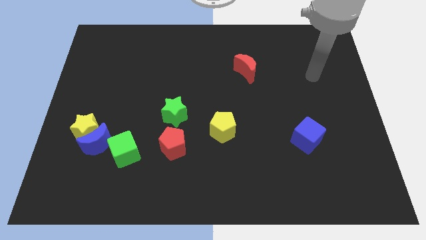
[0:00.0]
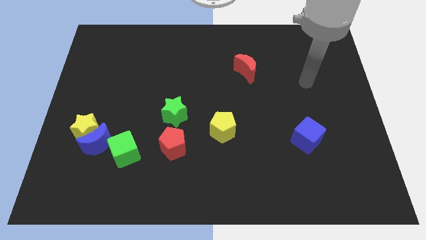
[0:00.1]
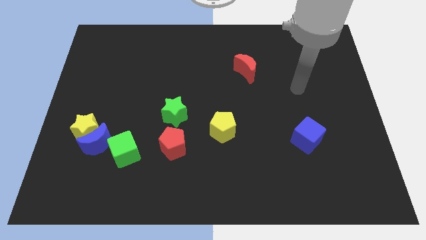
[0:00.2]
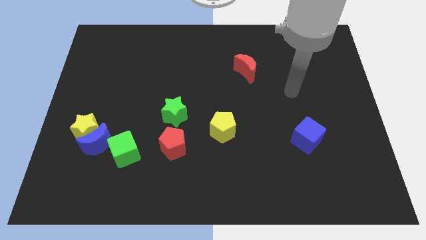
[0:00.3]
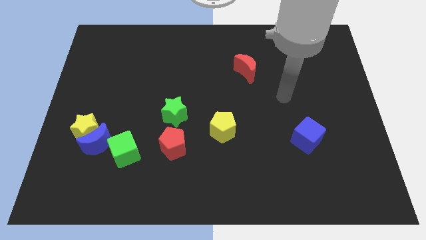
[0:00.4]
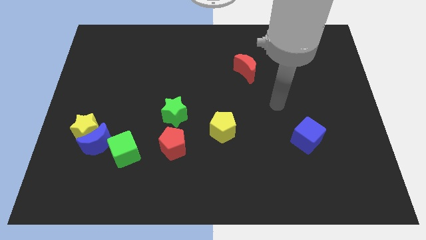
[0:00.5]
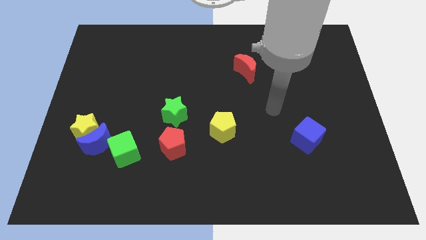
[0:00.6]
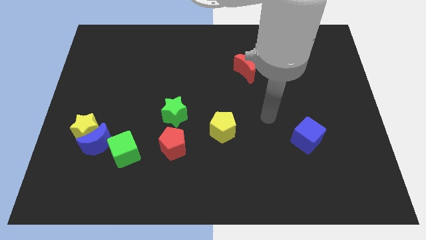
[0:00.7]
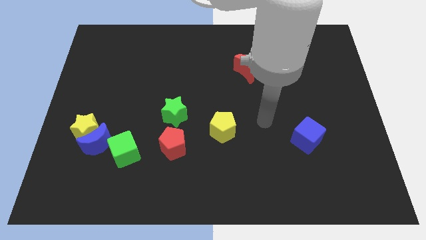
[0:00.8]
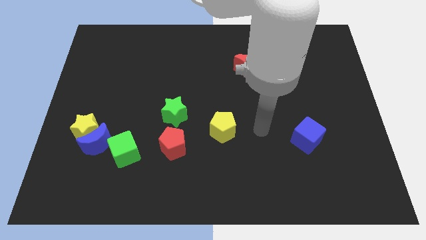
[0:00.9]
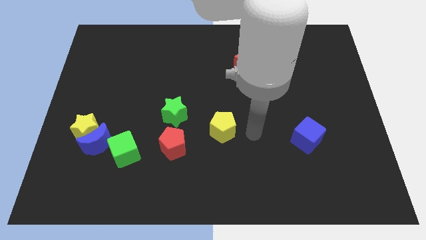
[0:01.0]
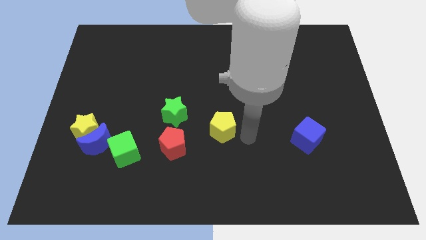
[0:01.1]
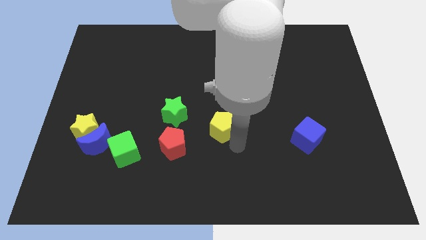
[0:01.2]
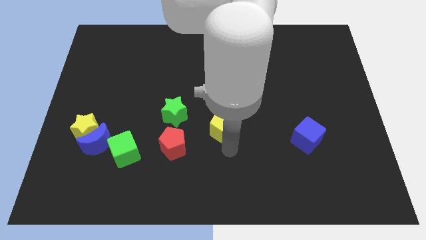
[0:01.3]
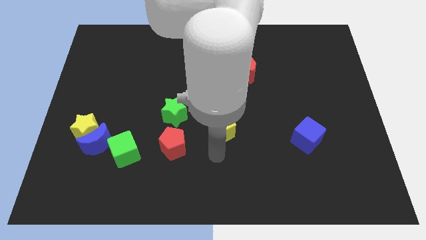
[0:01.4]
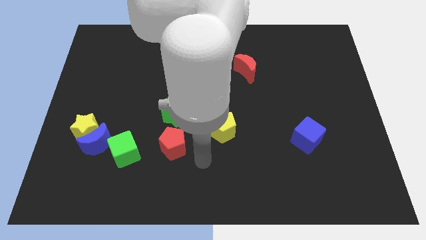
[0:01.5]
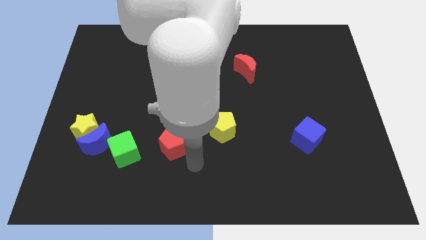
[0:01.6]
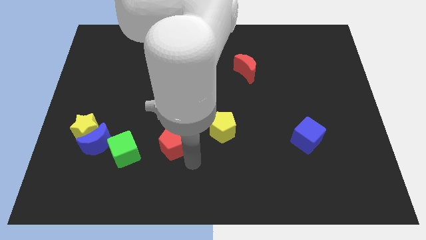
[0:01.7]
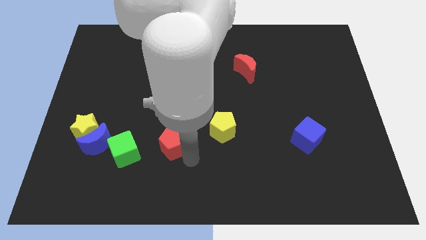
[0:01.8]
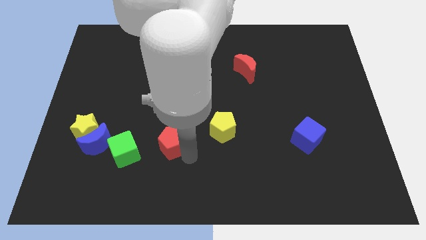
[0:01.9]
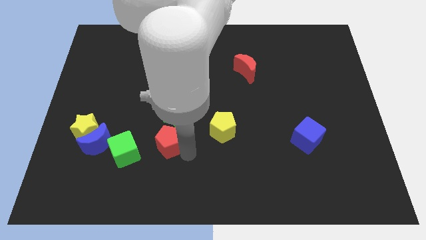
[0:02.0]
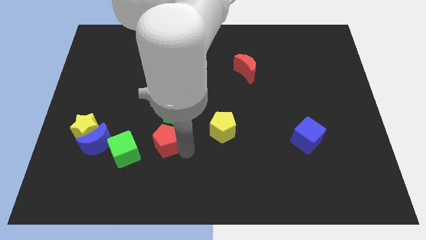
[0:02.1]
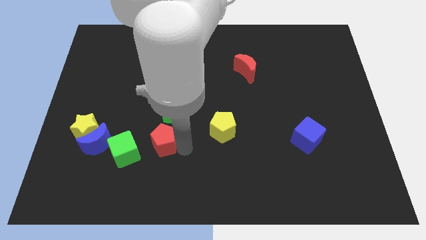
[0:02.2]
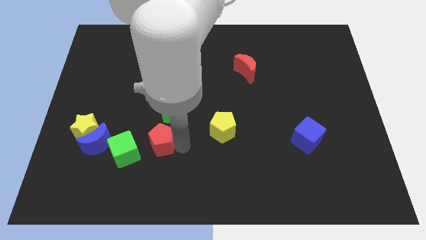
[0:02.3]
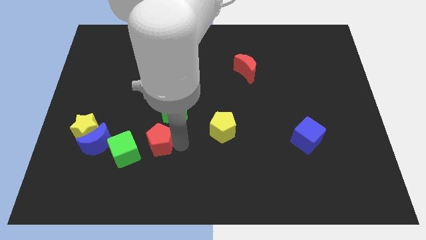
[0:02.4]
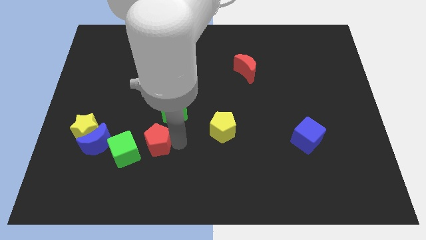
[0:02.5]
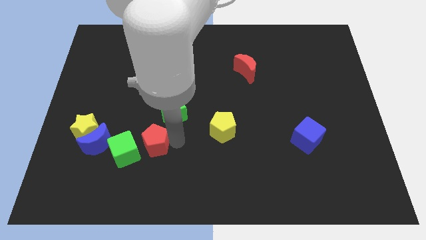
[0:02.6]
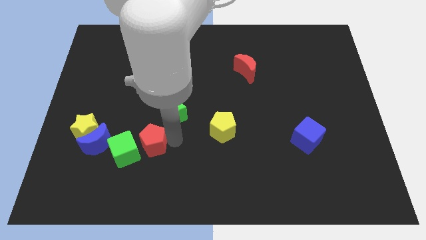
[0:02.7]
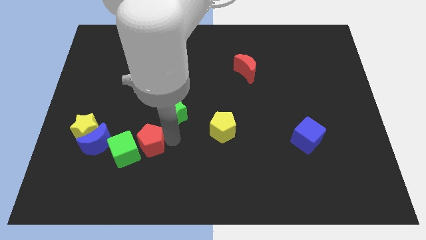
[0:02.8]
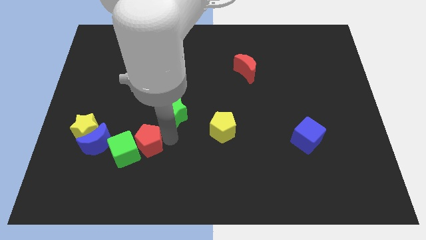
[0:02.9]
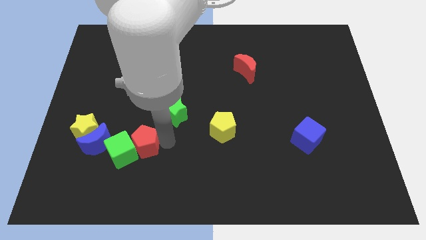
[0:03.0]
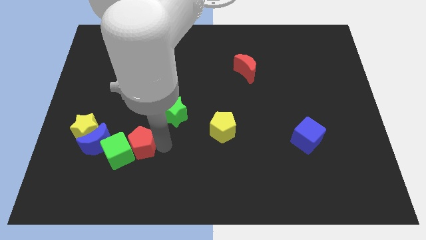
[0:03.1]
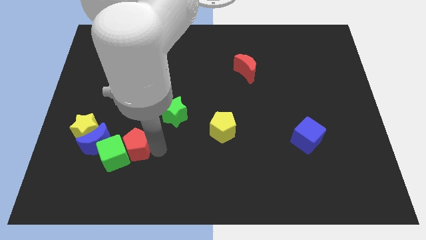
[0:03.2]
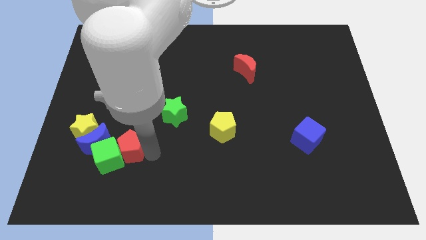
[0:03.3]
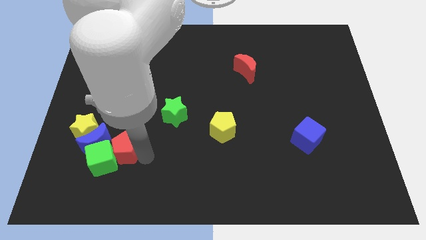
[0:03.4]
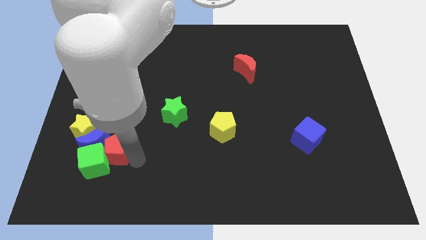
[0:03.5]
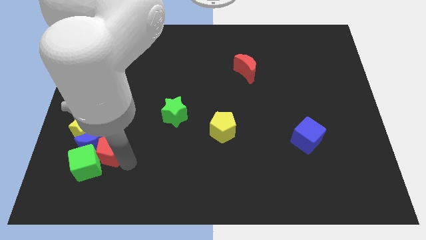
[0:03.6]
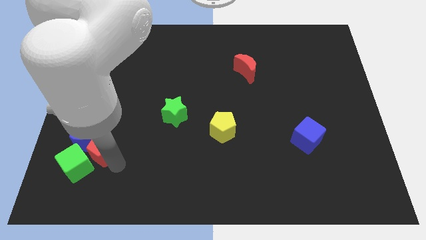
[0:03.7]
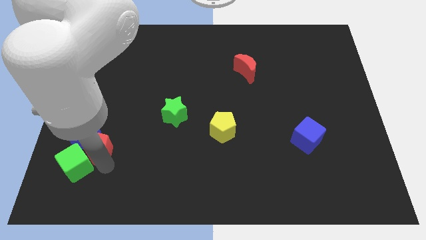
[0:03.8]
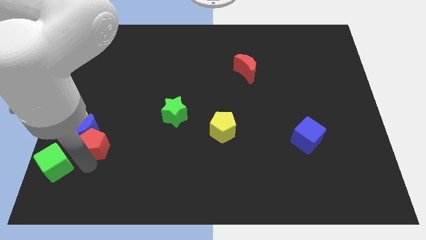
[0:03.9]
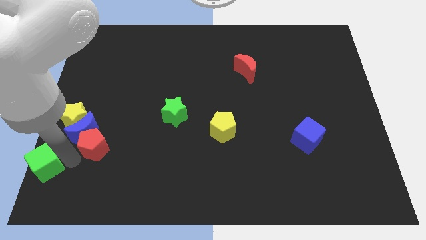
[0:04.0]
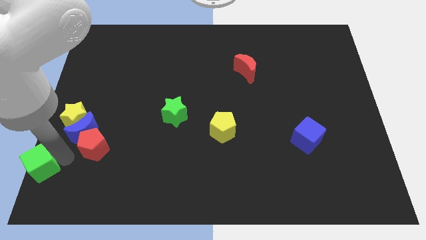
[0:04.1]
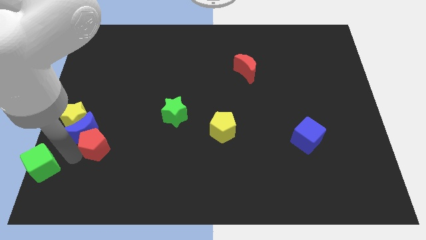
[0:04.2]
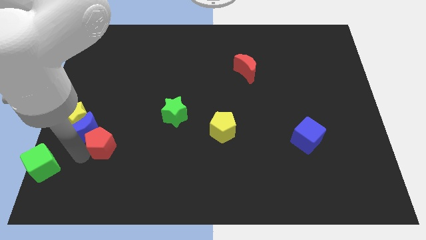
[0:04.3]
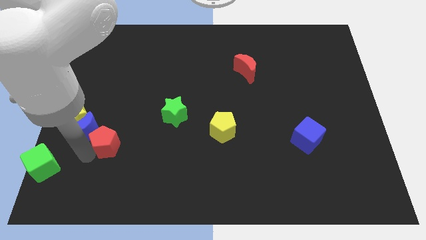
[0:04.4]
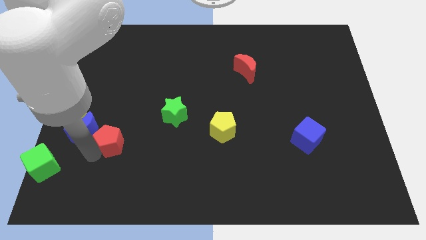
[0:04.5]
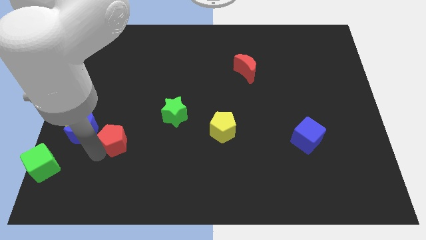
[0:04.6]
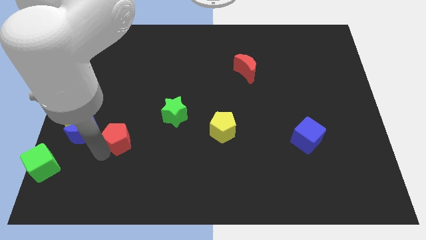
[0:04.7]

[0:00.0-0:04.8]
slide the red pentagon upwards and left diagonally a bit

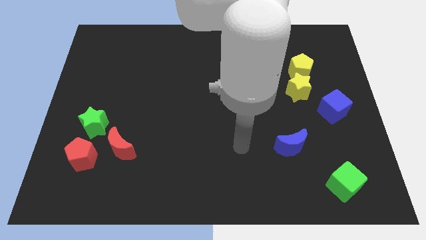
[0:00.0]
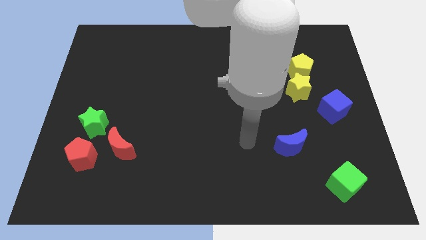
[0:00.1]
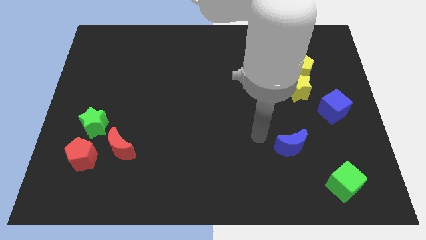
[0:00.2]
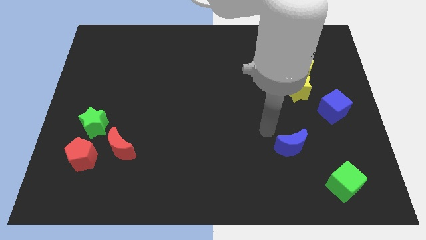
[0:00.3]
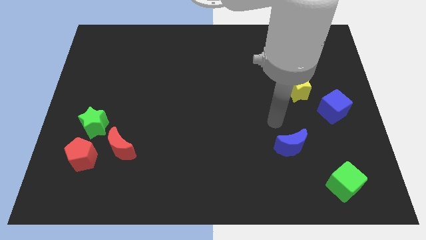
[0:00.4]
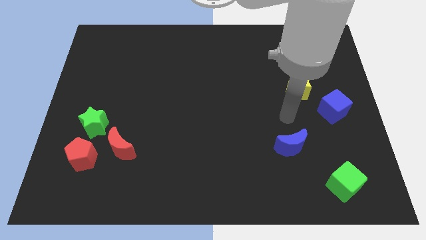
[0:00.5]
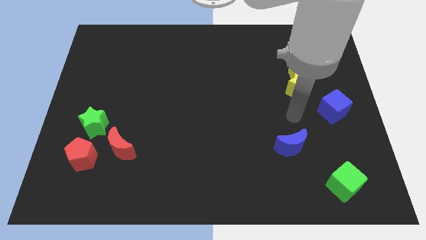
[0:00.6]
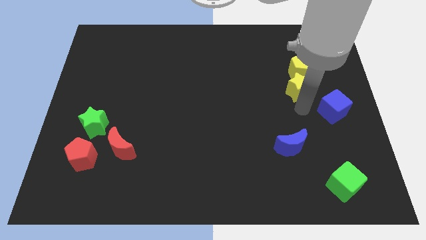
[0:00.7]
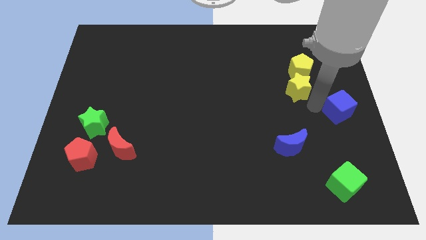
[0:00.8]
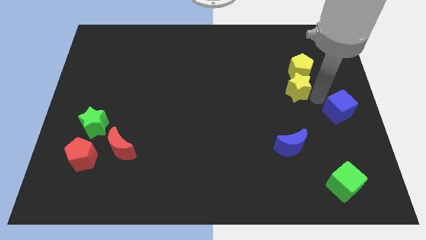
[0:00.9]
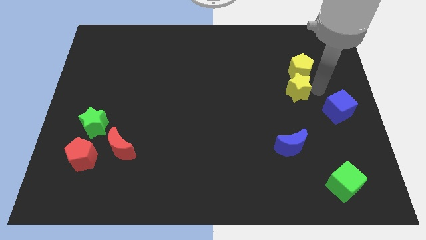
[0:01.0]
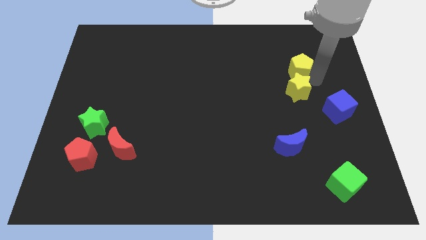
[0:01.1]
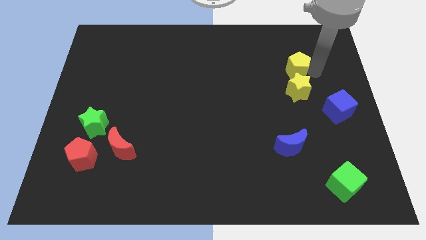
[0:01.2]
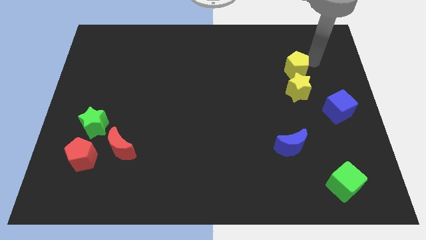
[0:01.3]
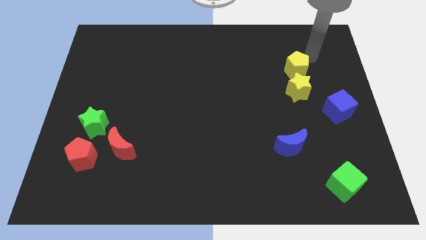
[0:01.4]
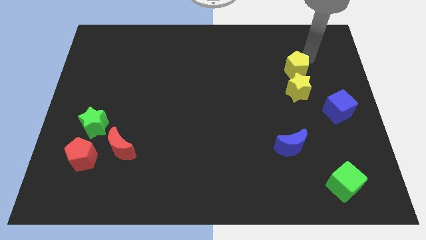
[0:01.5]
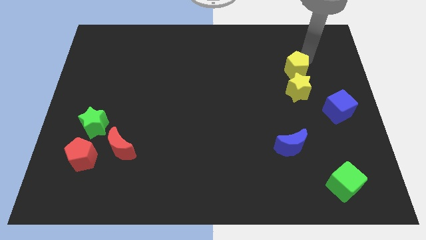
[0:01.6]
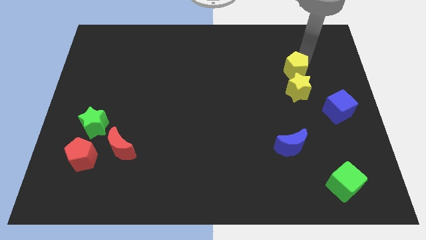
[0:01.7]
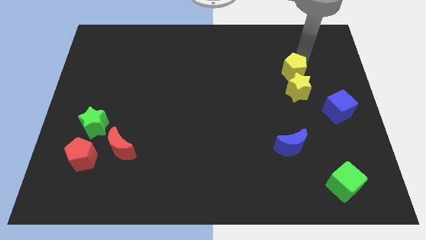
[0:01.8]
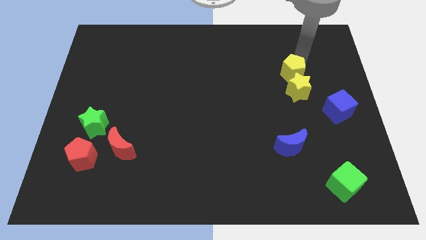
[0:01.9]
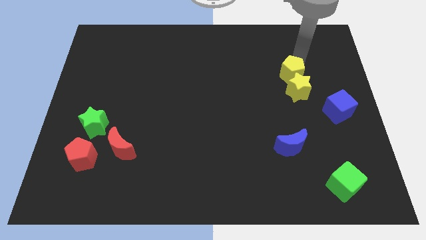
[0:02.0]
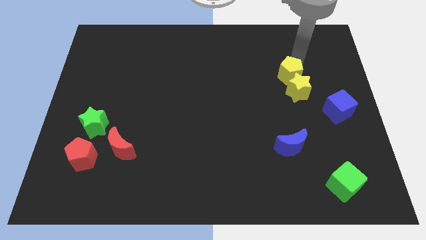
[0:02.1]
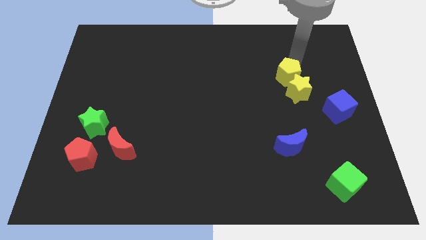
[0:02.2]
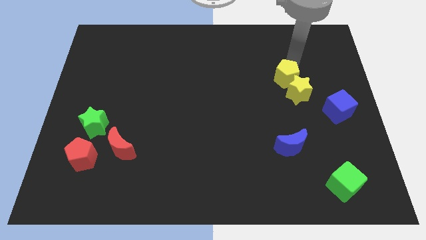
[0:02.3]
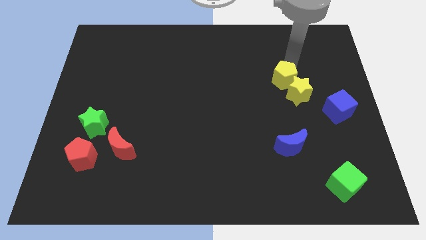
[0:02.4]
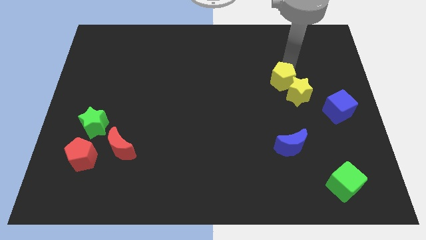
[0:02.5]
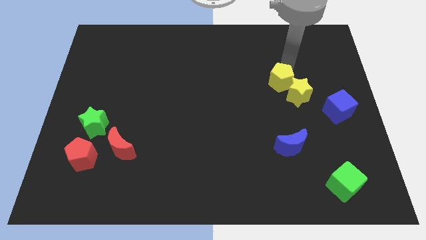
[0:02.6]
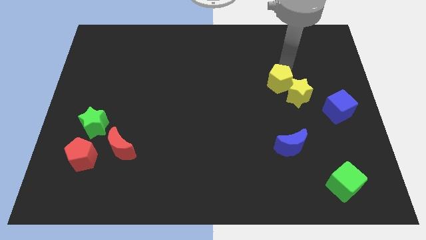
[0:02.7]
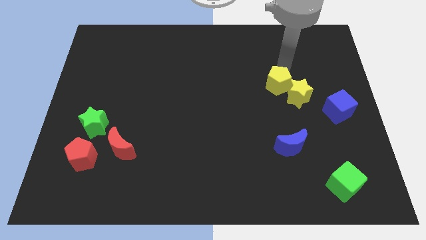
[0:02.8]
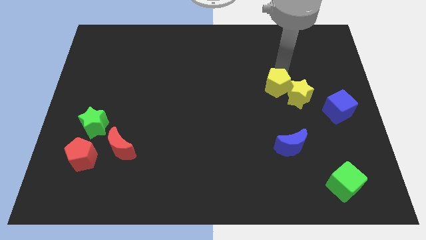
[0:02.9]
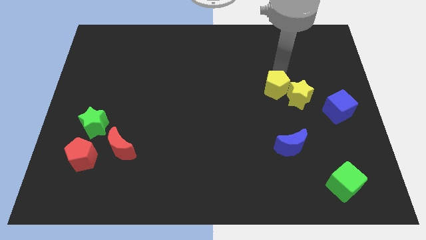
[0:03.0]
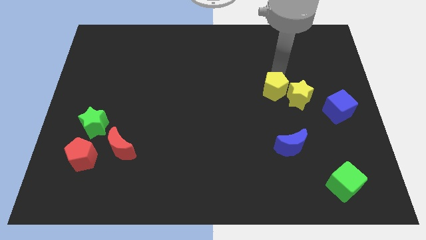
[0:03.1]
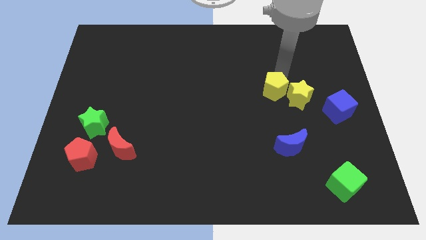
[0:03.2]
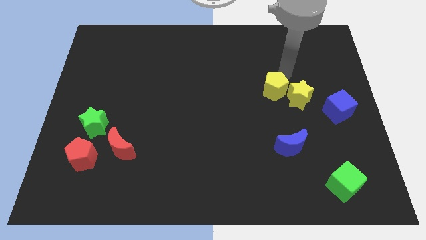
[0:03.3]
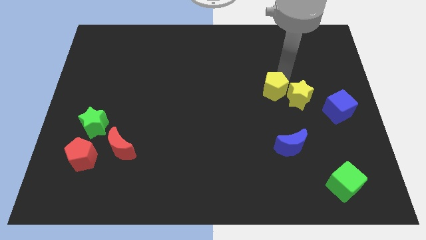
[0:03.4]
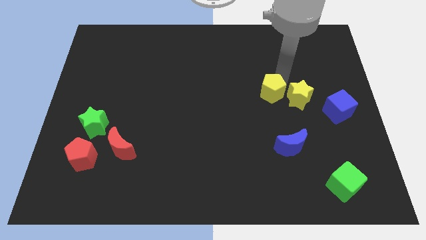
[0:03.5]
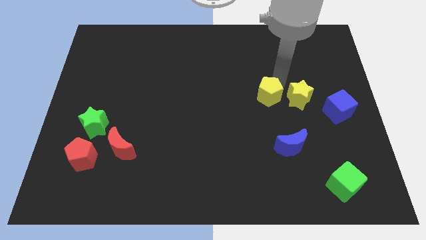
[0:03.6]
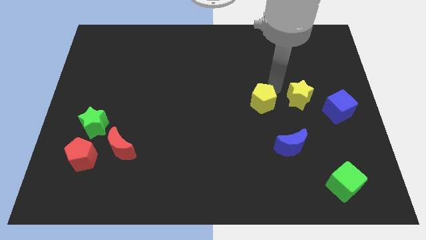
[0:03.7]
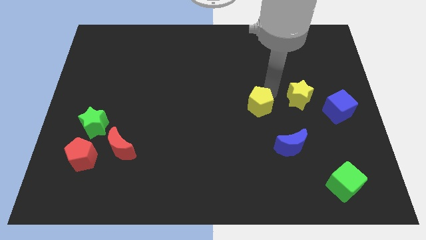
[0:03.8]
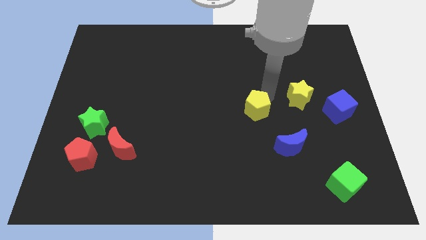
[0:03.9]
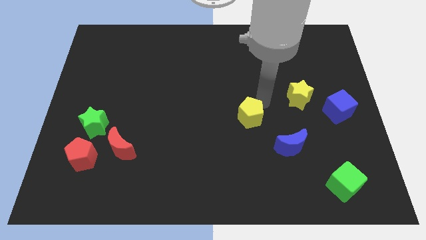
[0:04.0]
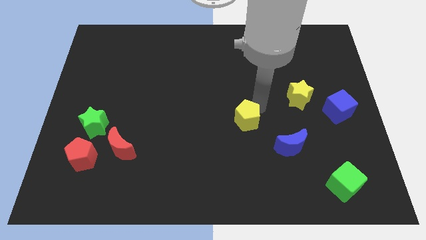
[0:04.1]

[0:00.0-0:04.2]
slide the yellow pentagon diagonally downwards and left
